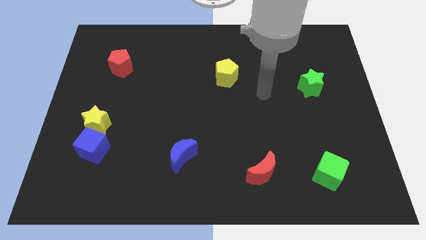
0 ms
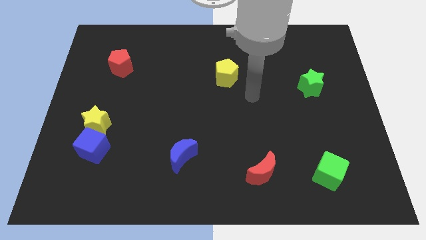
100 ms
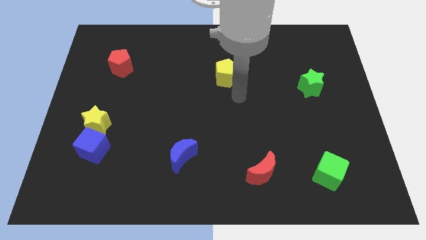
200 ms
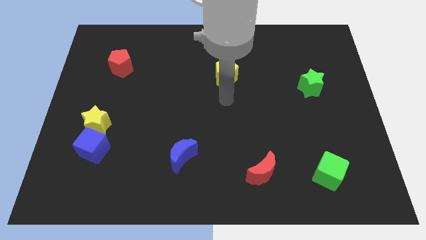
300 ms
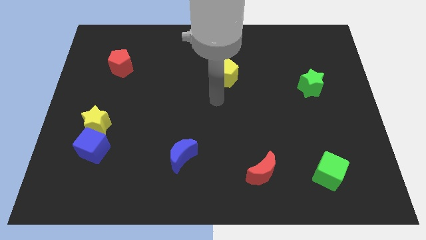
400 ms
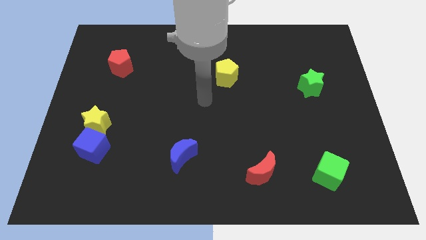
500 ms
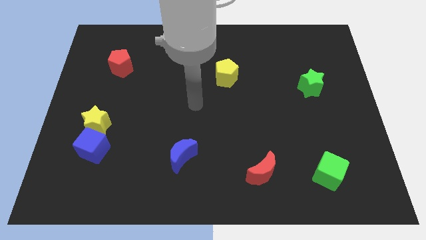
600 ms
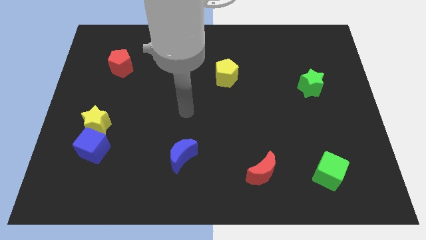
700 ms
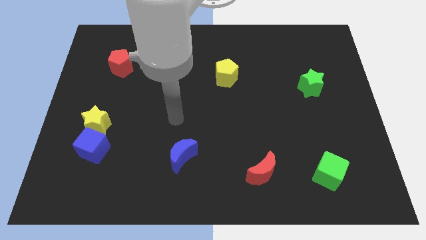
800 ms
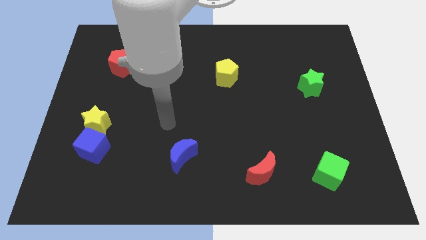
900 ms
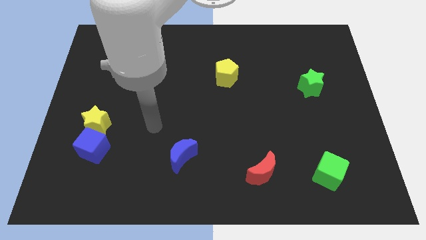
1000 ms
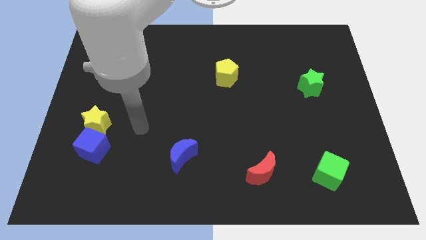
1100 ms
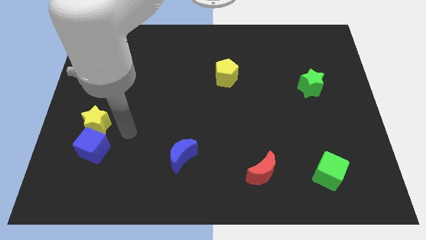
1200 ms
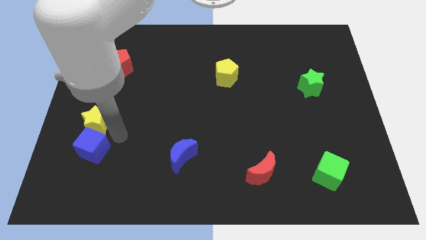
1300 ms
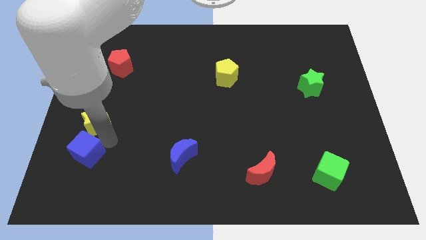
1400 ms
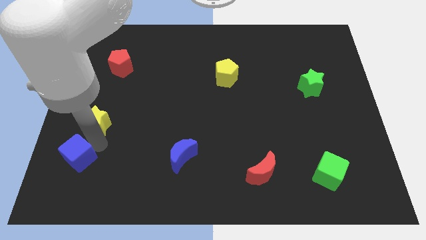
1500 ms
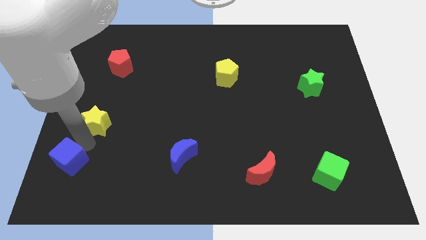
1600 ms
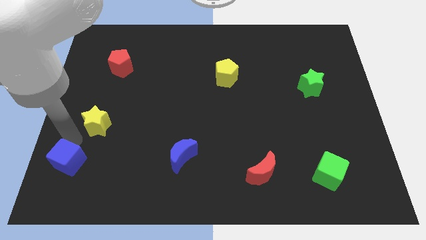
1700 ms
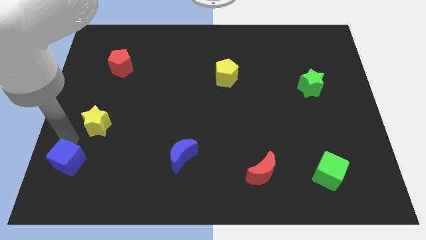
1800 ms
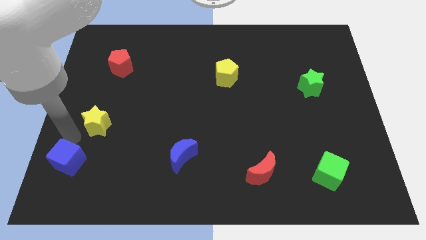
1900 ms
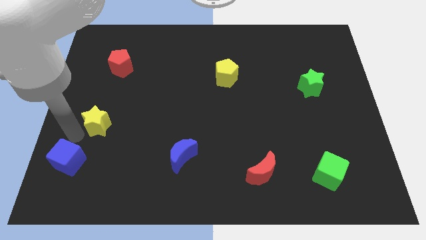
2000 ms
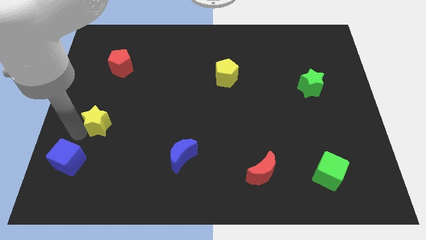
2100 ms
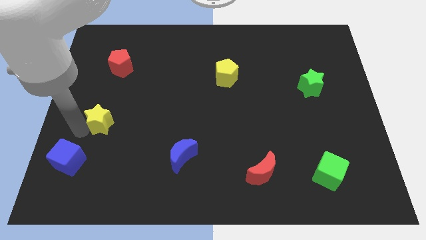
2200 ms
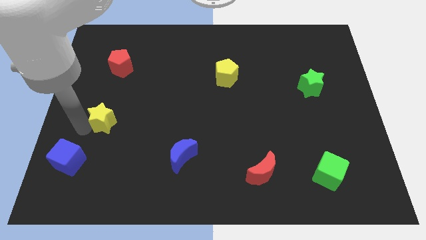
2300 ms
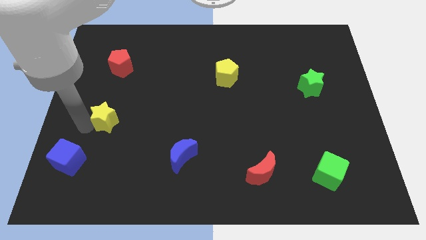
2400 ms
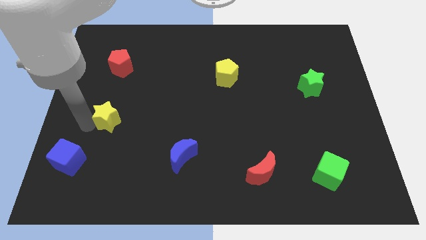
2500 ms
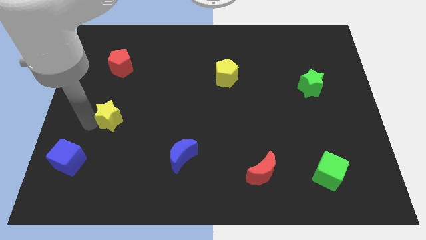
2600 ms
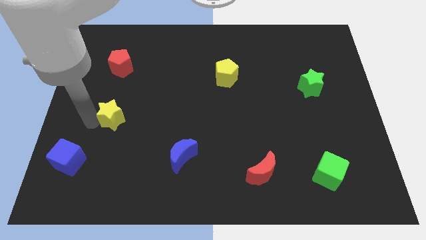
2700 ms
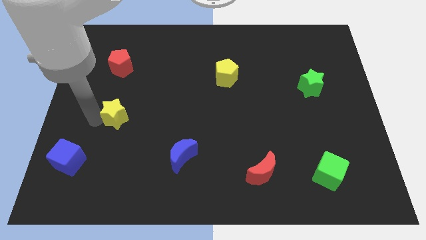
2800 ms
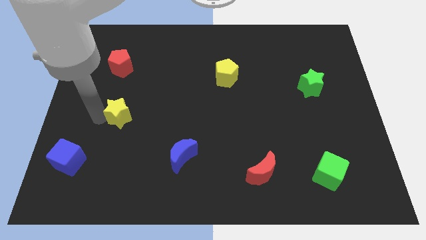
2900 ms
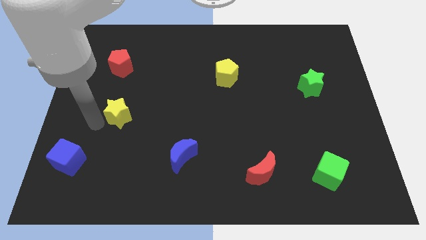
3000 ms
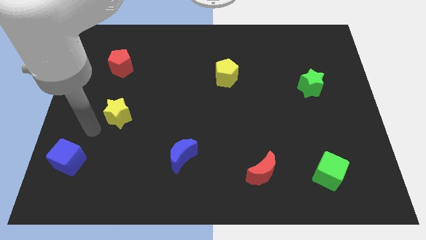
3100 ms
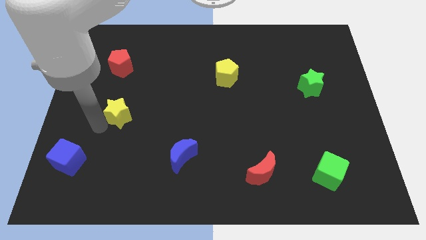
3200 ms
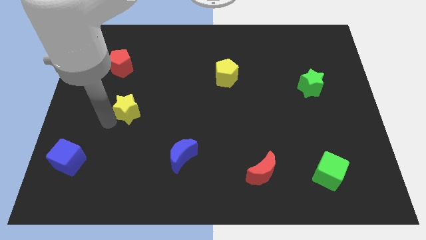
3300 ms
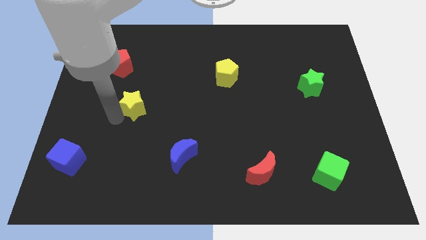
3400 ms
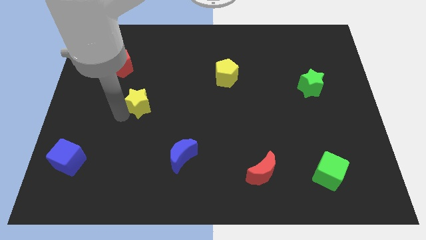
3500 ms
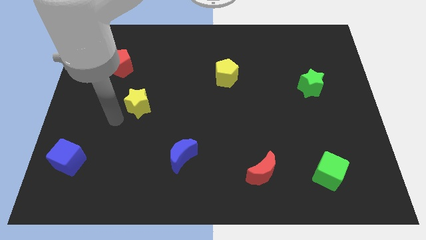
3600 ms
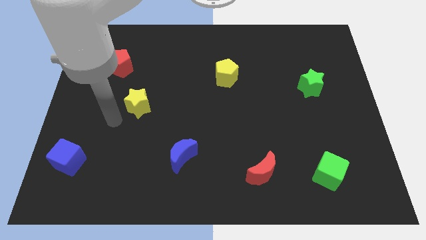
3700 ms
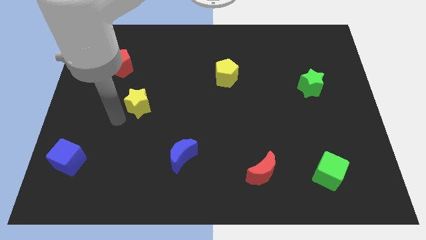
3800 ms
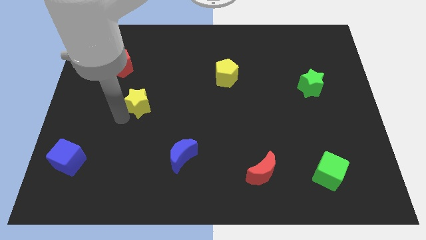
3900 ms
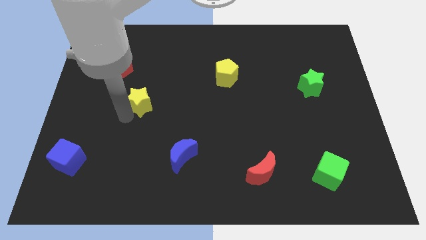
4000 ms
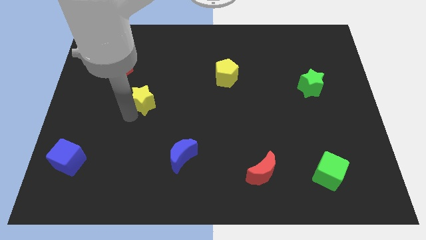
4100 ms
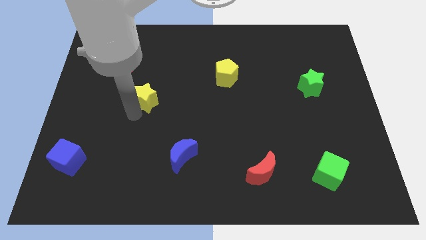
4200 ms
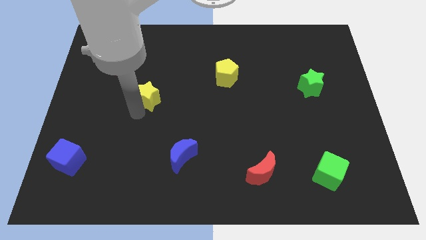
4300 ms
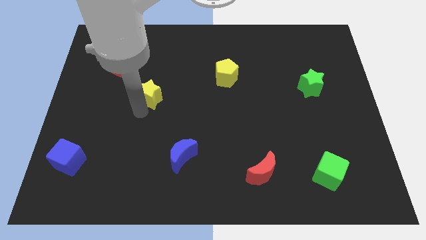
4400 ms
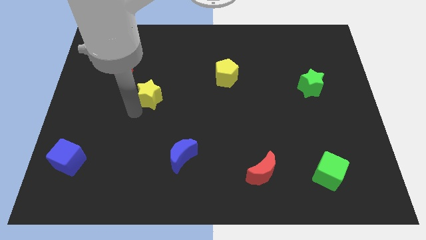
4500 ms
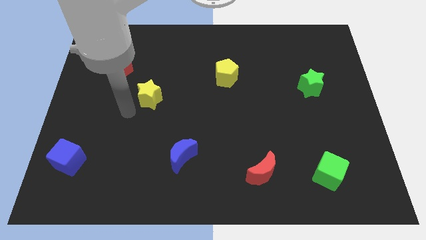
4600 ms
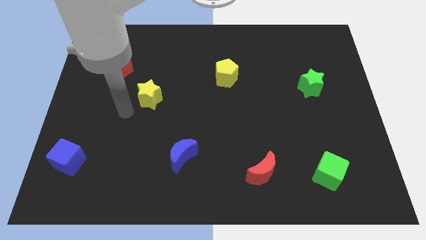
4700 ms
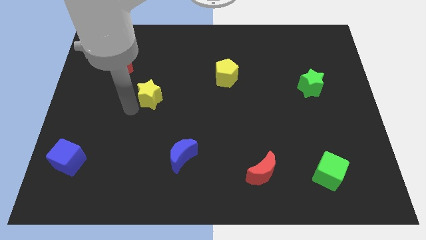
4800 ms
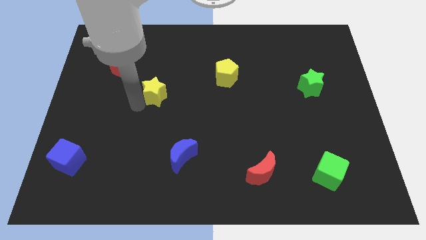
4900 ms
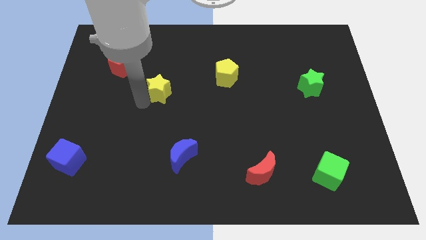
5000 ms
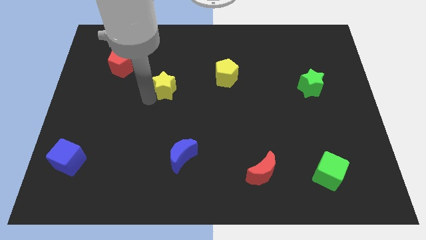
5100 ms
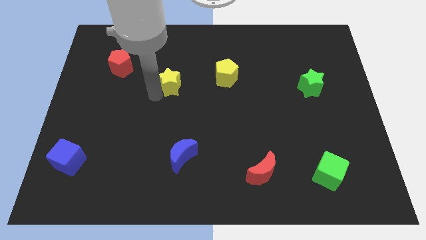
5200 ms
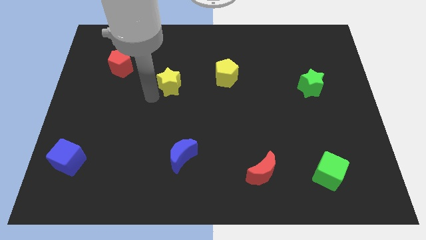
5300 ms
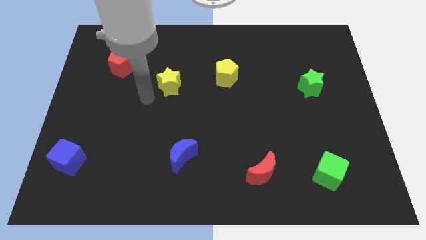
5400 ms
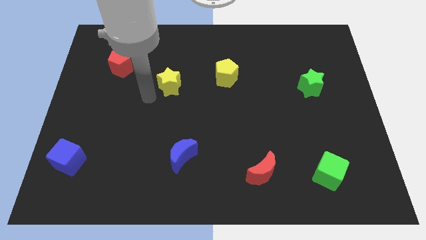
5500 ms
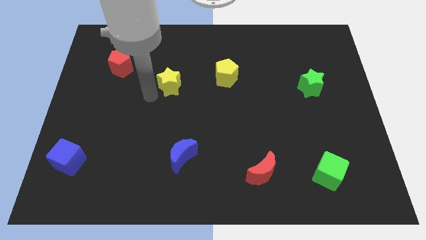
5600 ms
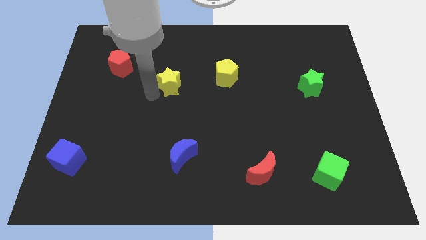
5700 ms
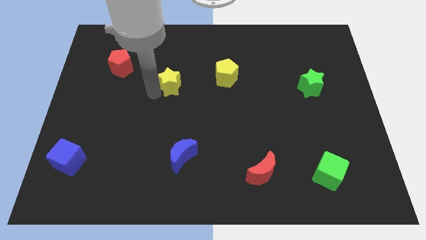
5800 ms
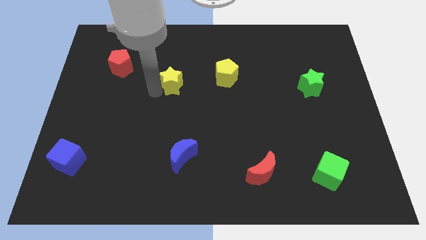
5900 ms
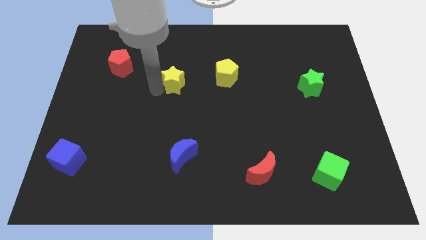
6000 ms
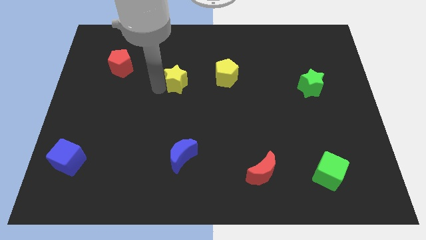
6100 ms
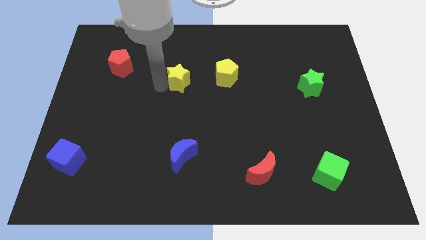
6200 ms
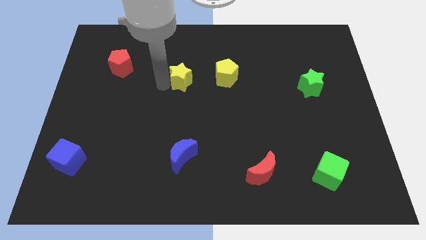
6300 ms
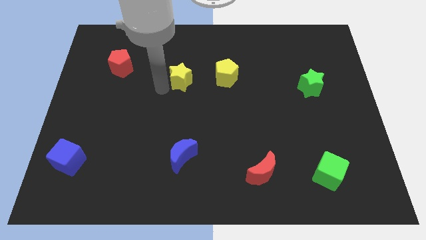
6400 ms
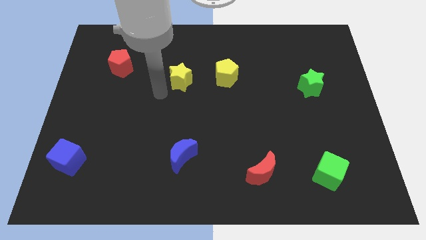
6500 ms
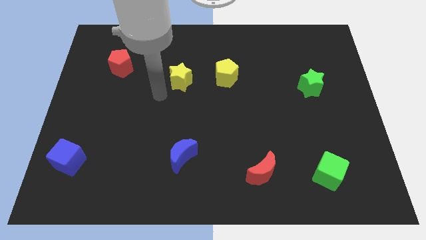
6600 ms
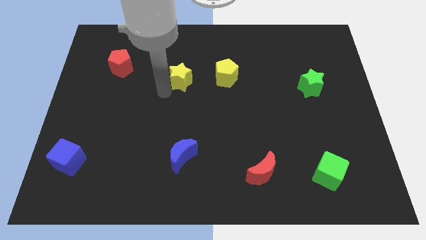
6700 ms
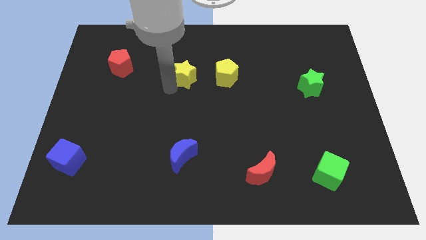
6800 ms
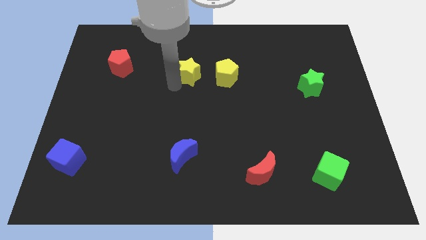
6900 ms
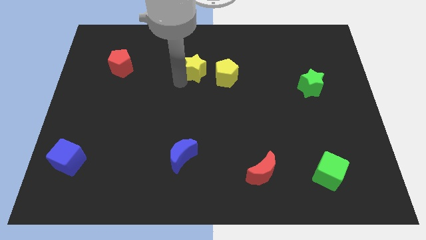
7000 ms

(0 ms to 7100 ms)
push the yellow star to the top left side of the yellow pentagon
